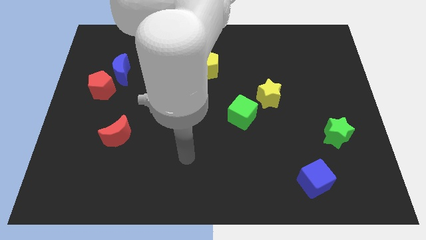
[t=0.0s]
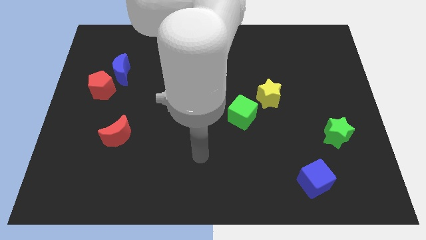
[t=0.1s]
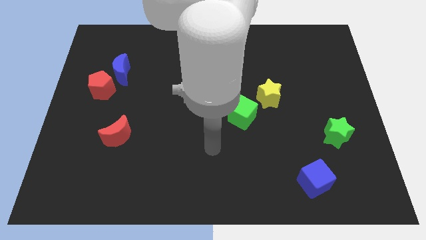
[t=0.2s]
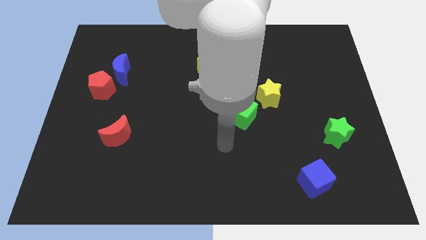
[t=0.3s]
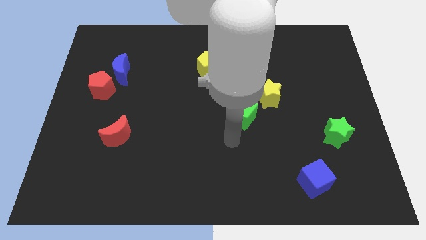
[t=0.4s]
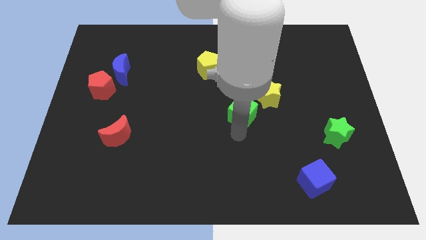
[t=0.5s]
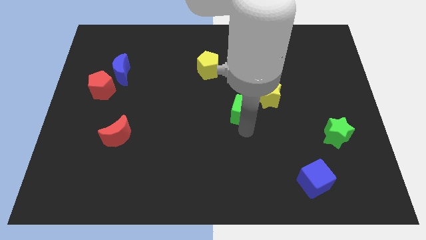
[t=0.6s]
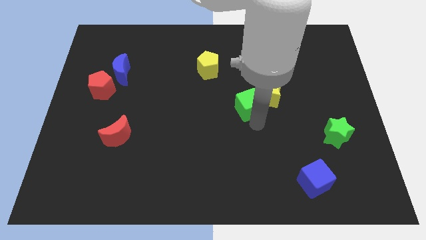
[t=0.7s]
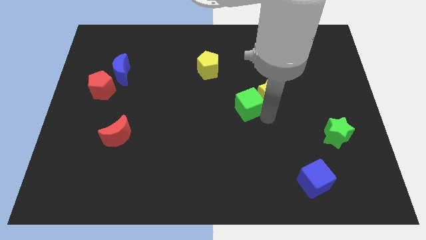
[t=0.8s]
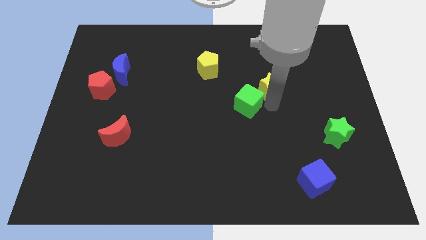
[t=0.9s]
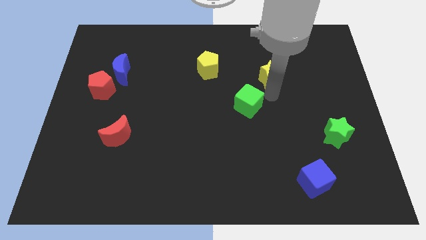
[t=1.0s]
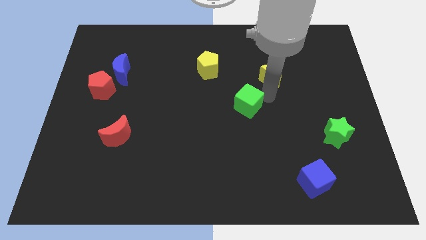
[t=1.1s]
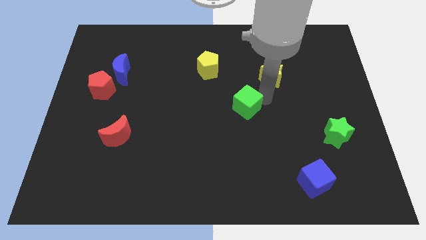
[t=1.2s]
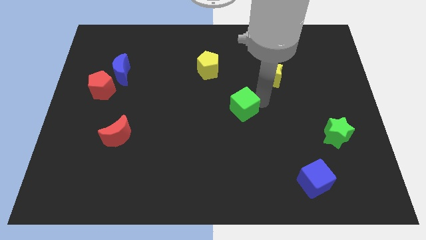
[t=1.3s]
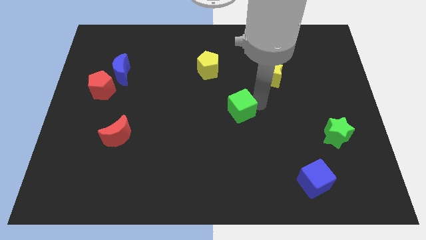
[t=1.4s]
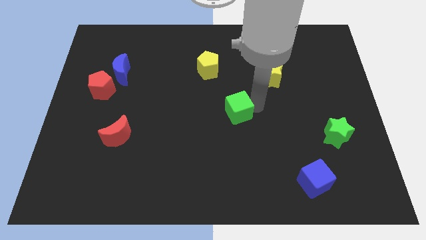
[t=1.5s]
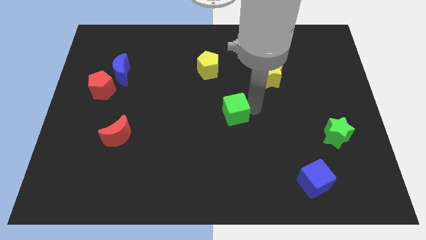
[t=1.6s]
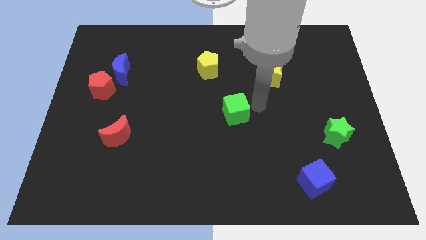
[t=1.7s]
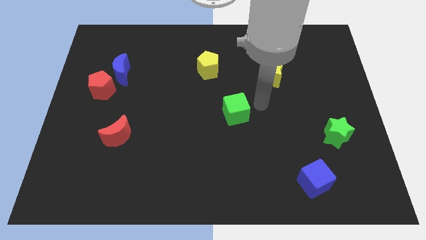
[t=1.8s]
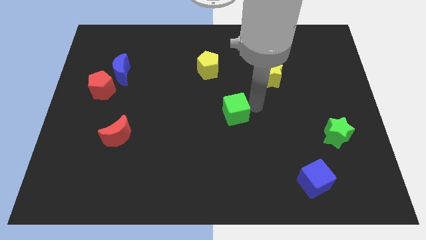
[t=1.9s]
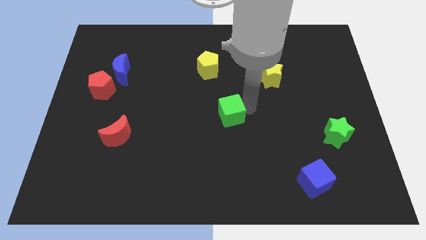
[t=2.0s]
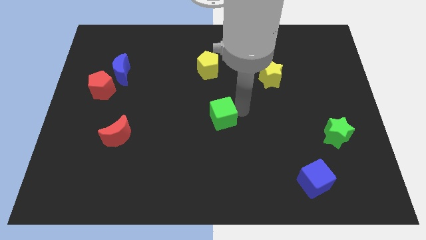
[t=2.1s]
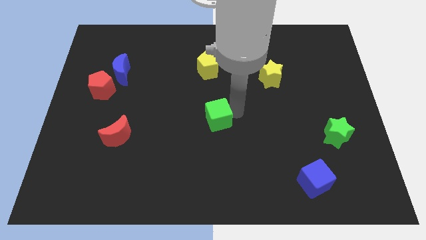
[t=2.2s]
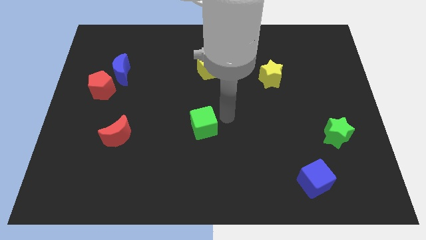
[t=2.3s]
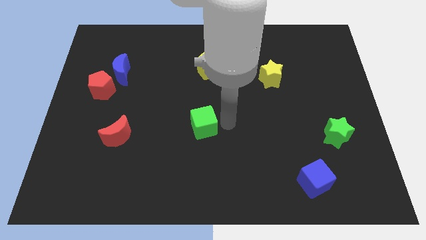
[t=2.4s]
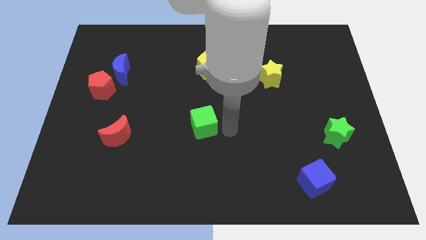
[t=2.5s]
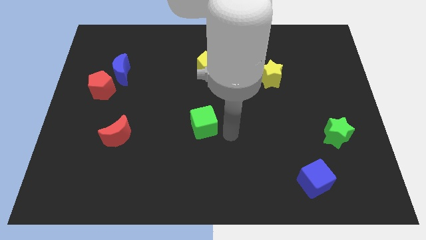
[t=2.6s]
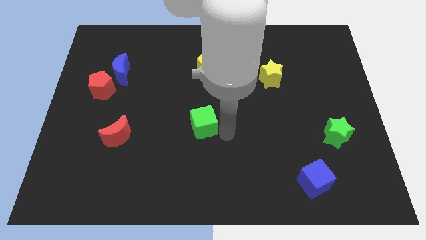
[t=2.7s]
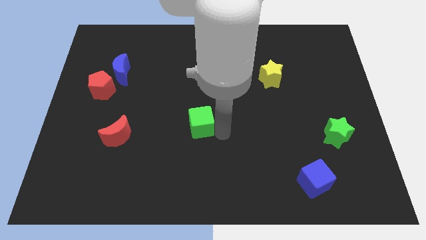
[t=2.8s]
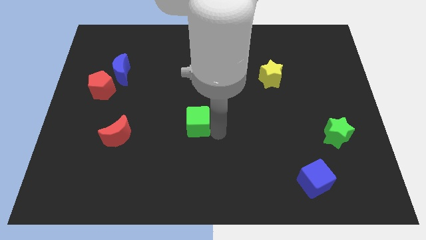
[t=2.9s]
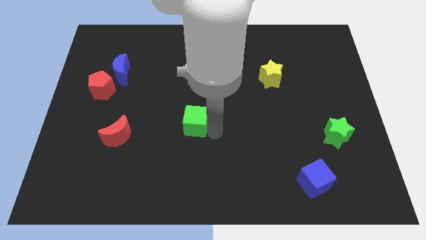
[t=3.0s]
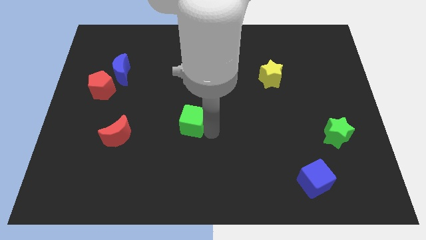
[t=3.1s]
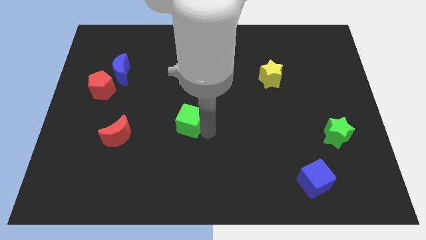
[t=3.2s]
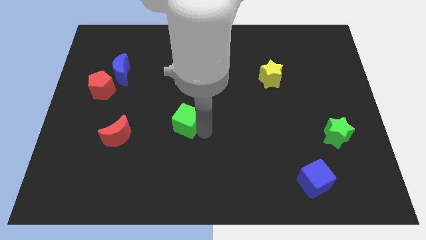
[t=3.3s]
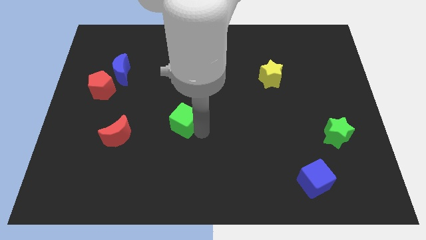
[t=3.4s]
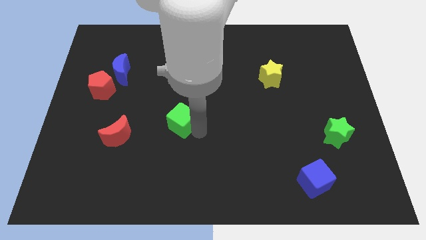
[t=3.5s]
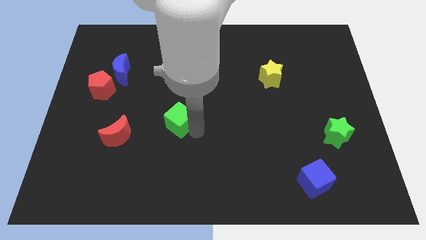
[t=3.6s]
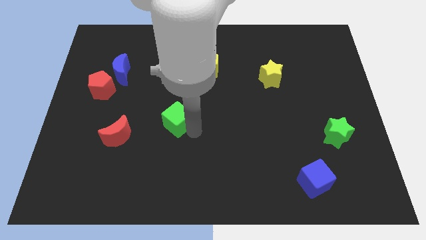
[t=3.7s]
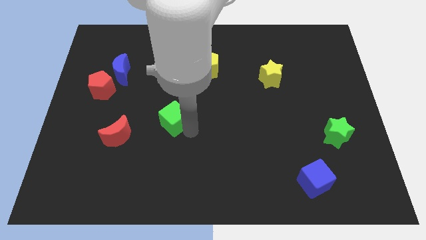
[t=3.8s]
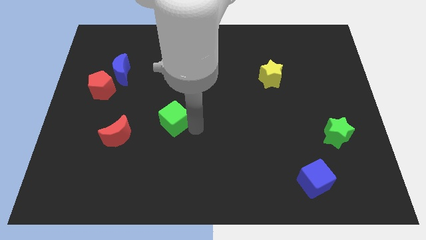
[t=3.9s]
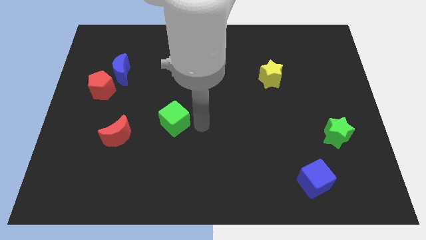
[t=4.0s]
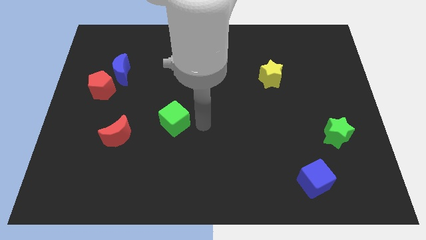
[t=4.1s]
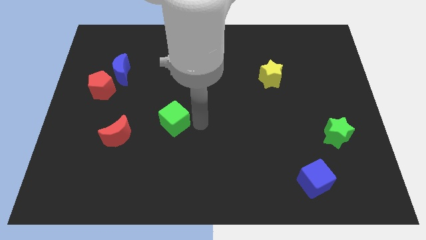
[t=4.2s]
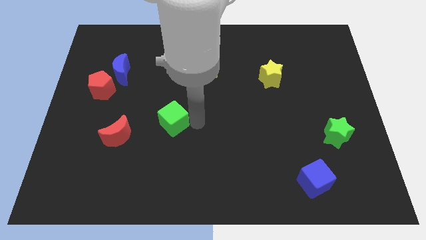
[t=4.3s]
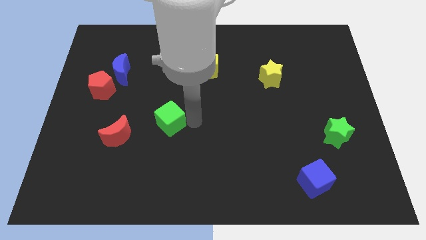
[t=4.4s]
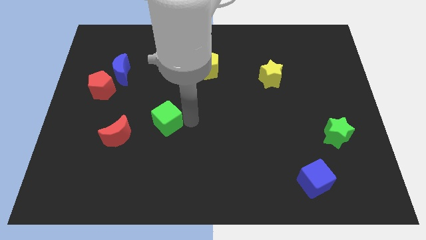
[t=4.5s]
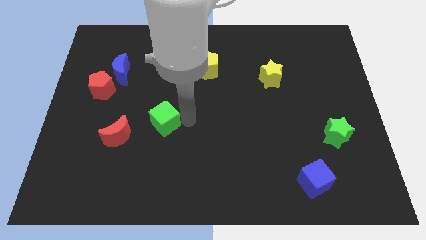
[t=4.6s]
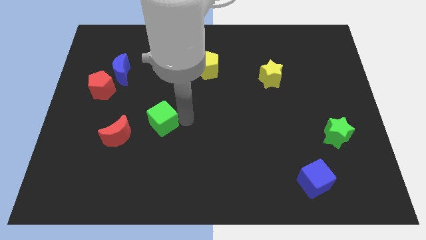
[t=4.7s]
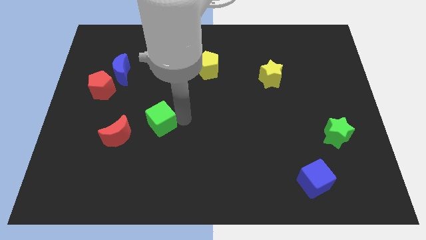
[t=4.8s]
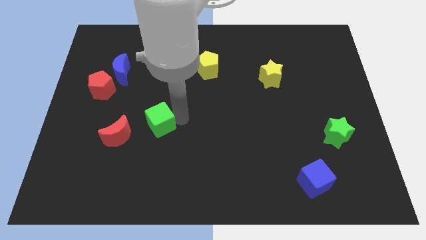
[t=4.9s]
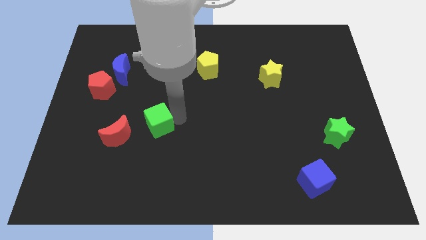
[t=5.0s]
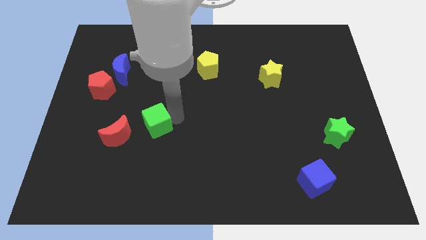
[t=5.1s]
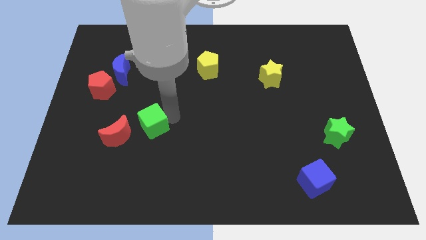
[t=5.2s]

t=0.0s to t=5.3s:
move the green cube left

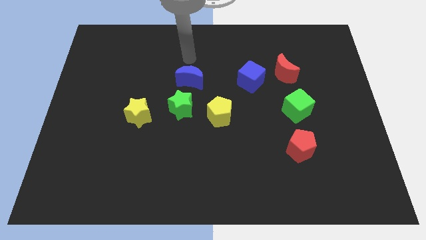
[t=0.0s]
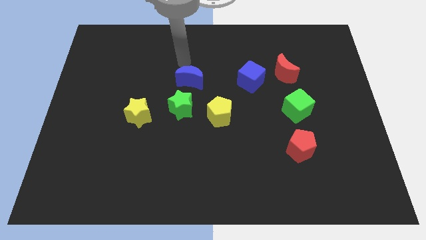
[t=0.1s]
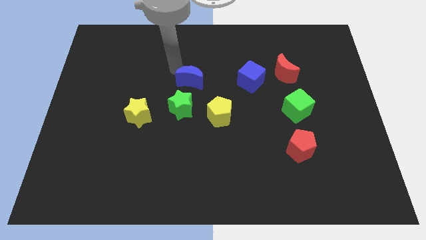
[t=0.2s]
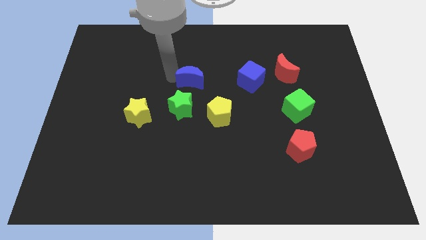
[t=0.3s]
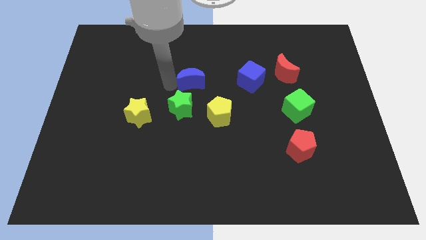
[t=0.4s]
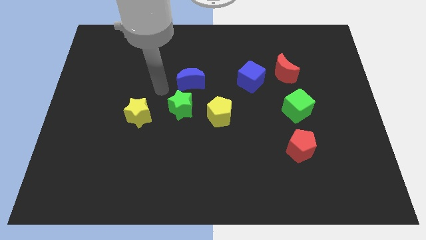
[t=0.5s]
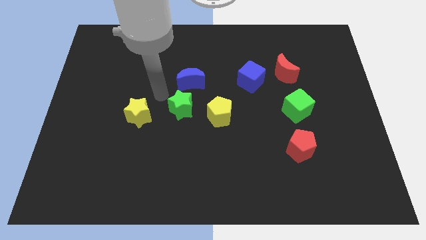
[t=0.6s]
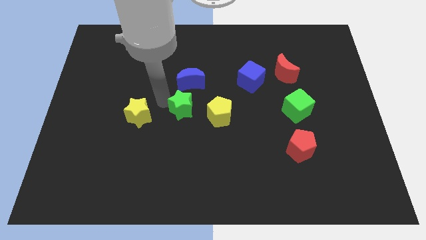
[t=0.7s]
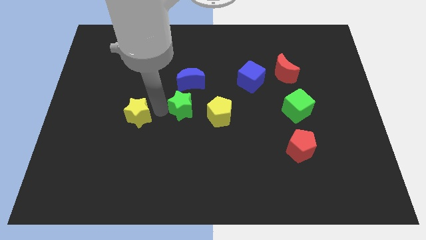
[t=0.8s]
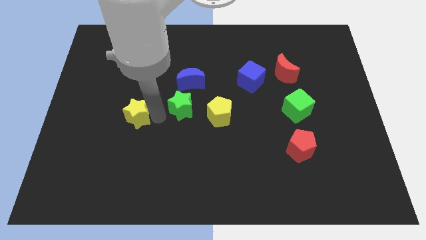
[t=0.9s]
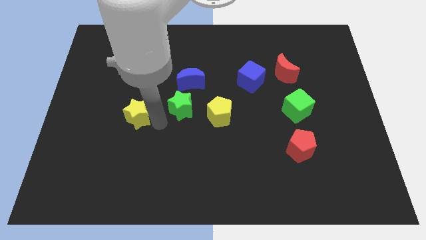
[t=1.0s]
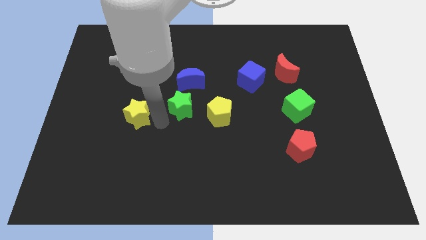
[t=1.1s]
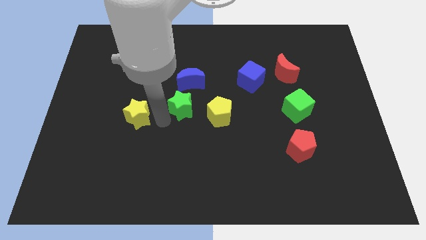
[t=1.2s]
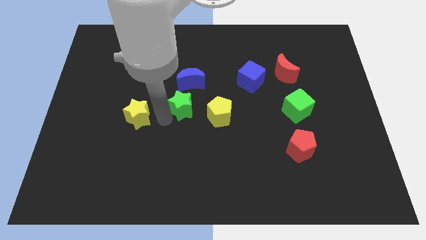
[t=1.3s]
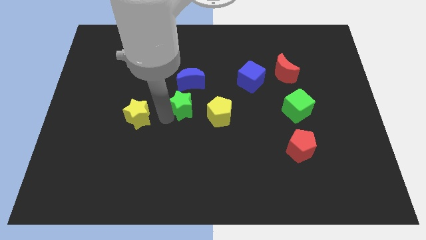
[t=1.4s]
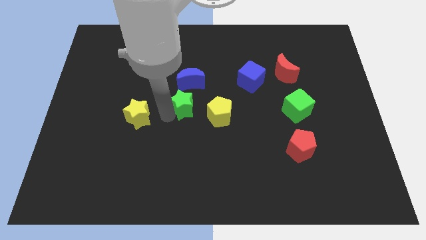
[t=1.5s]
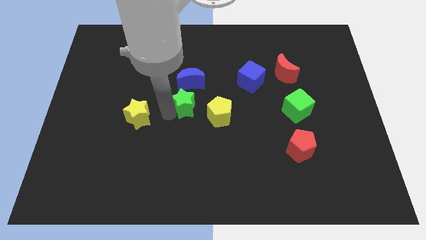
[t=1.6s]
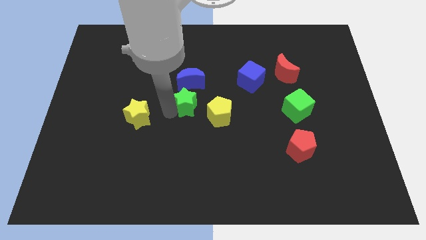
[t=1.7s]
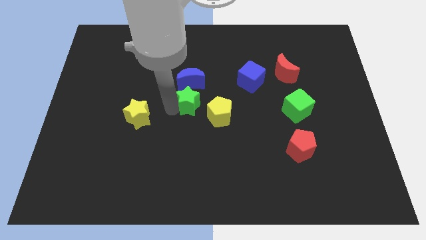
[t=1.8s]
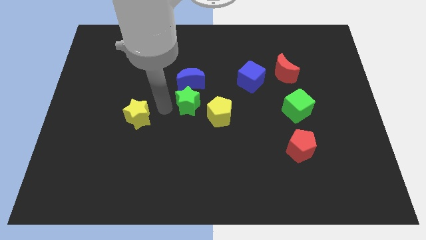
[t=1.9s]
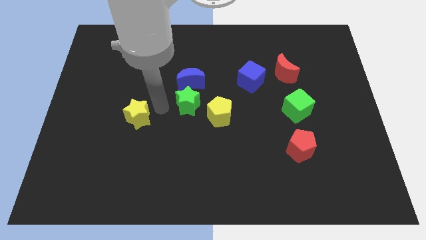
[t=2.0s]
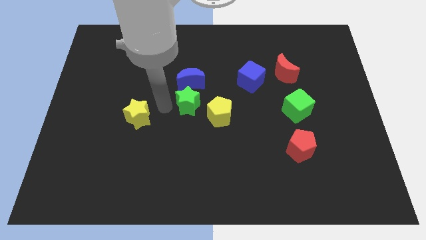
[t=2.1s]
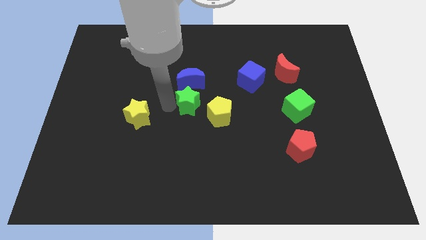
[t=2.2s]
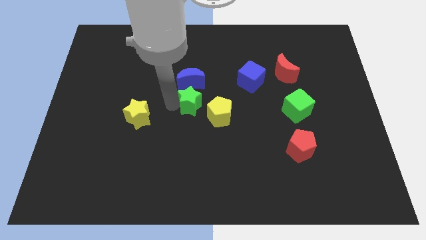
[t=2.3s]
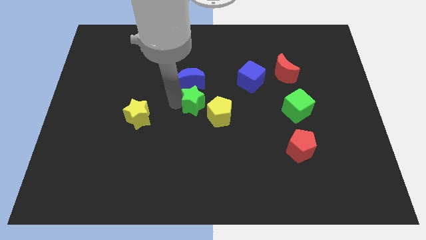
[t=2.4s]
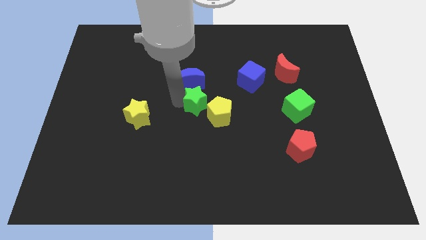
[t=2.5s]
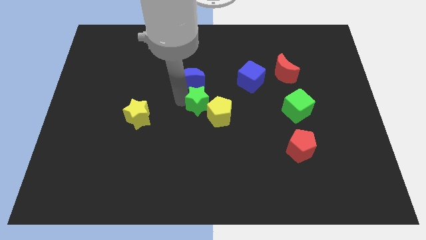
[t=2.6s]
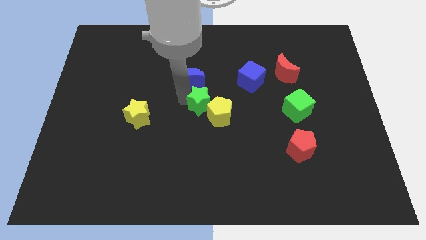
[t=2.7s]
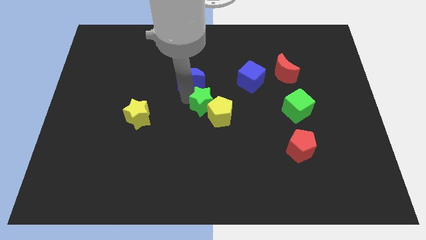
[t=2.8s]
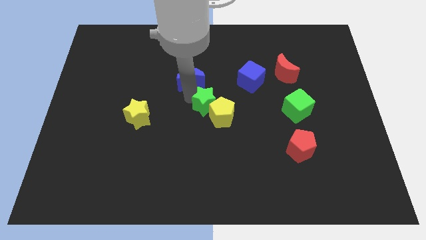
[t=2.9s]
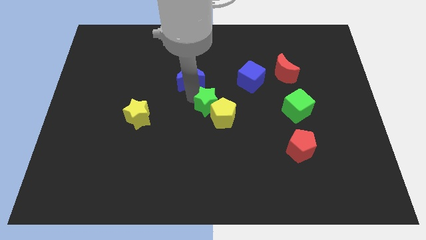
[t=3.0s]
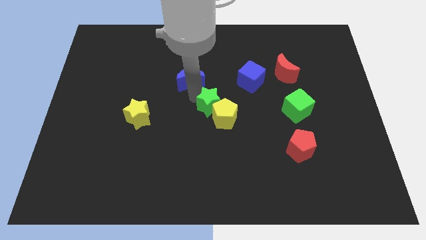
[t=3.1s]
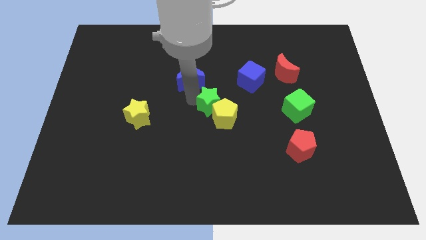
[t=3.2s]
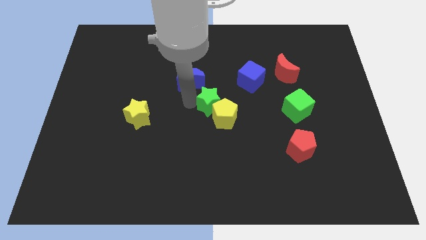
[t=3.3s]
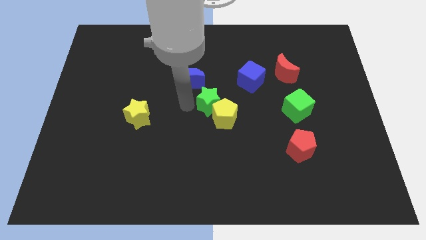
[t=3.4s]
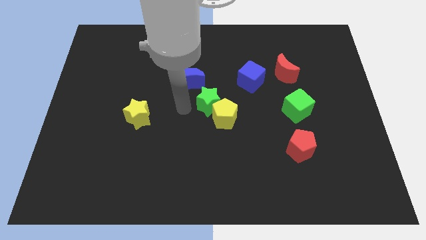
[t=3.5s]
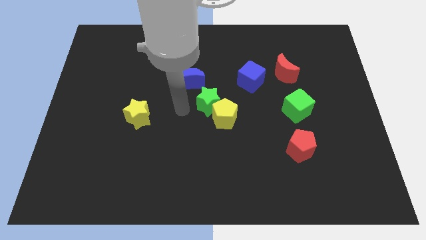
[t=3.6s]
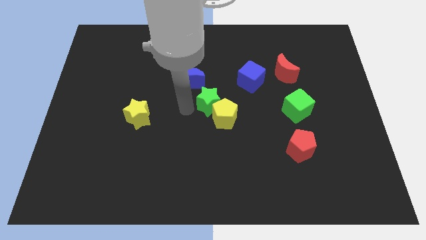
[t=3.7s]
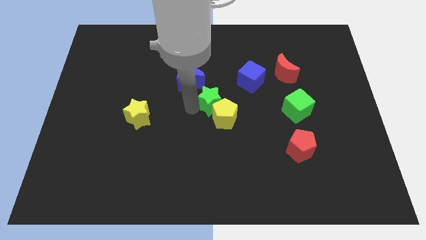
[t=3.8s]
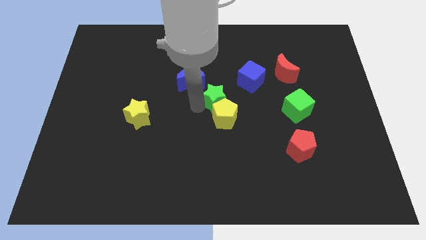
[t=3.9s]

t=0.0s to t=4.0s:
slide the green star a little bit to the right
